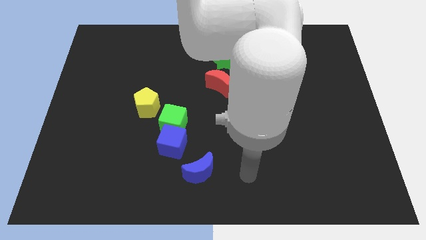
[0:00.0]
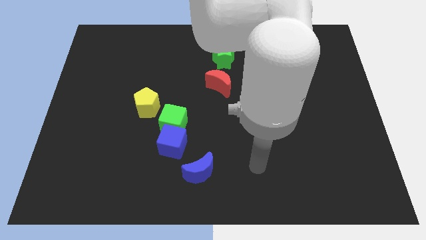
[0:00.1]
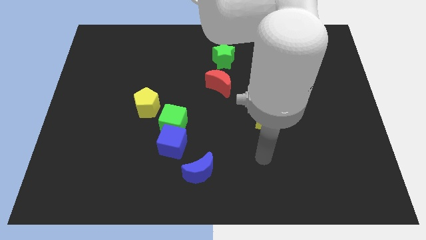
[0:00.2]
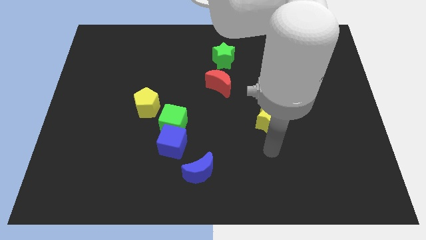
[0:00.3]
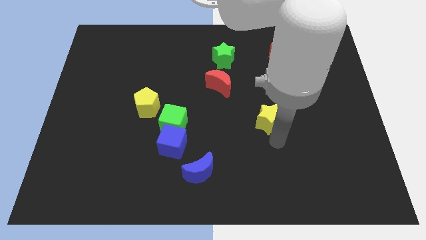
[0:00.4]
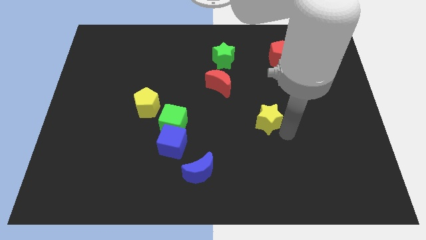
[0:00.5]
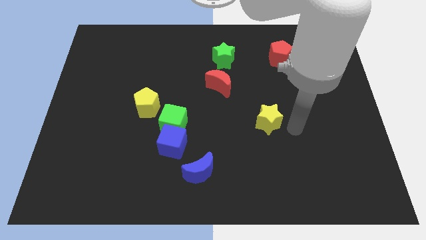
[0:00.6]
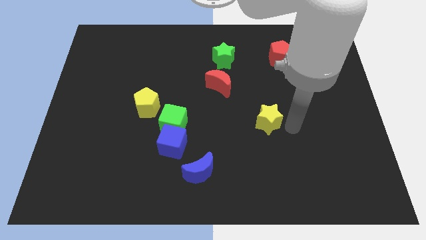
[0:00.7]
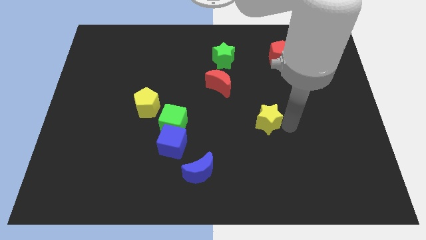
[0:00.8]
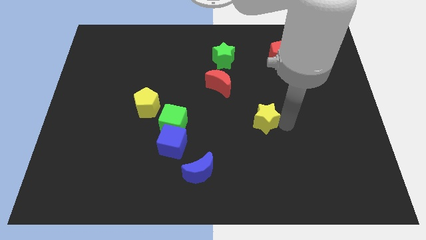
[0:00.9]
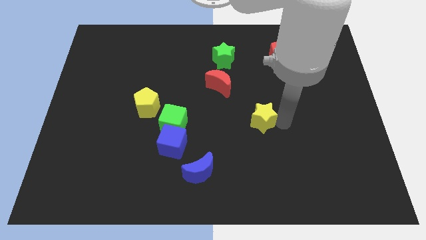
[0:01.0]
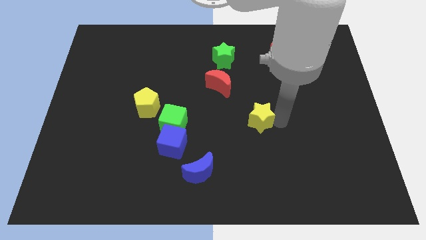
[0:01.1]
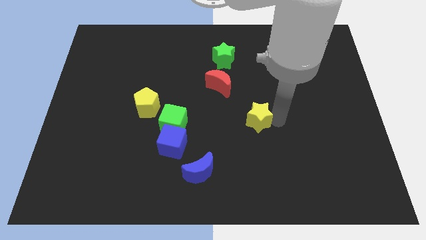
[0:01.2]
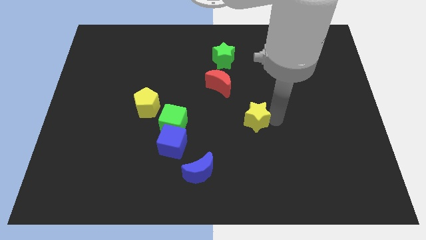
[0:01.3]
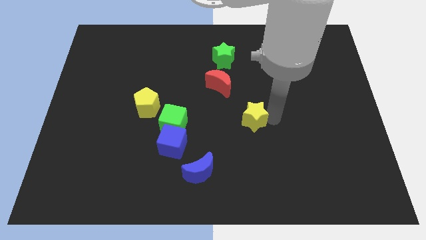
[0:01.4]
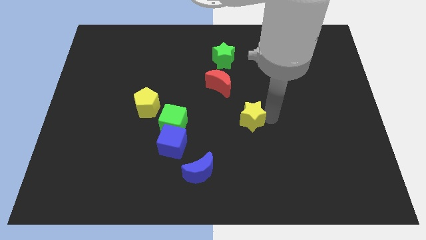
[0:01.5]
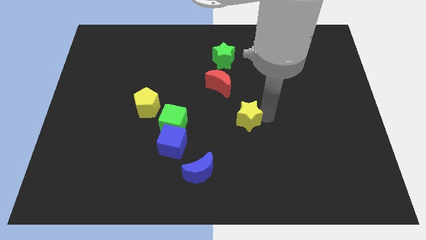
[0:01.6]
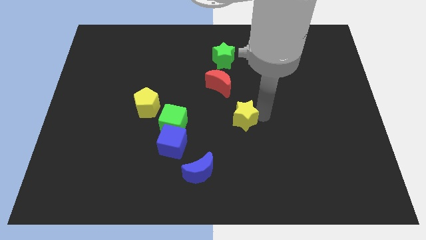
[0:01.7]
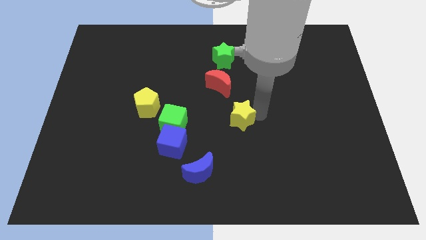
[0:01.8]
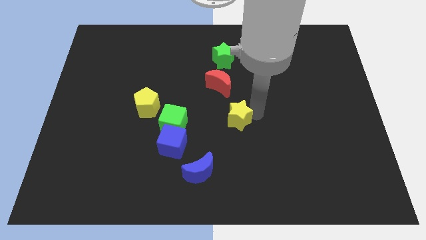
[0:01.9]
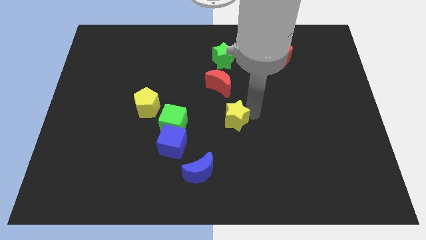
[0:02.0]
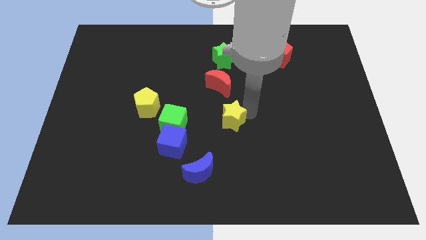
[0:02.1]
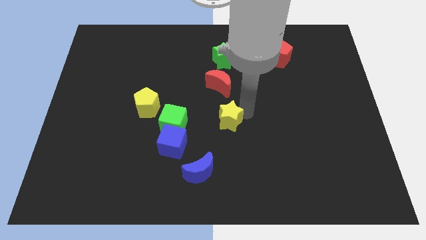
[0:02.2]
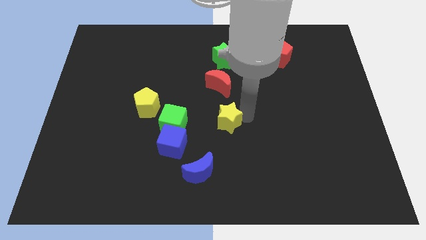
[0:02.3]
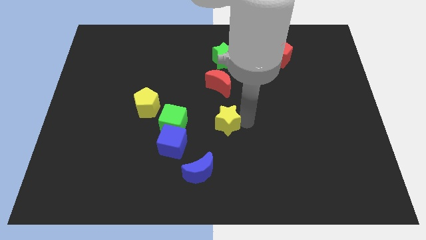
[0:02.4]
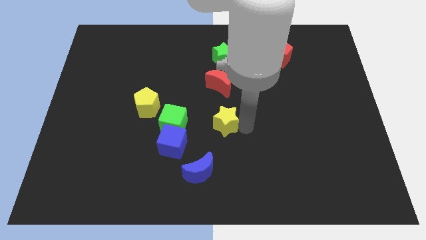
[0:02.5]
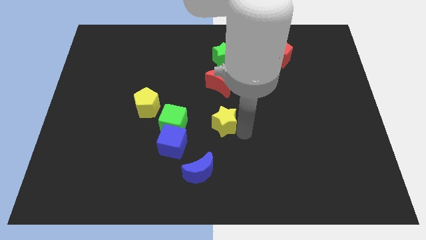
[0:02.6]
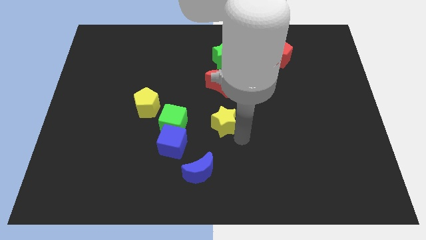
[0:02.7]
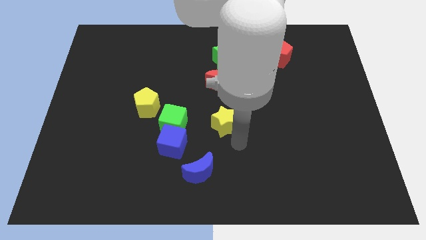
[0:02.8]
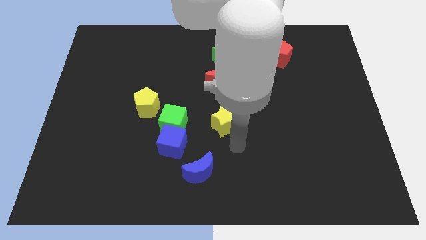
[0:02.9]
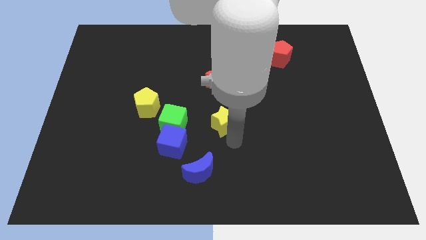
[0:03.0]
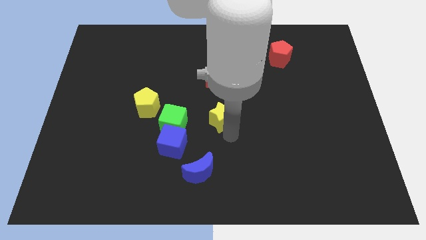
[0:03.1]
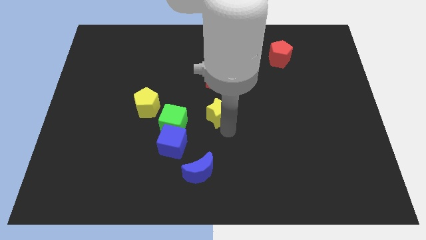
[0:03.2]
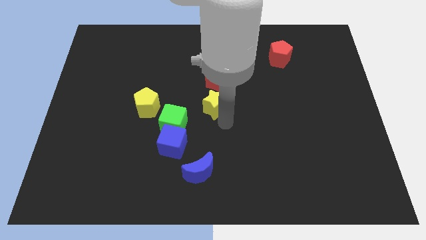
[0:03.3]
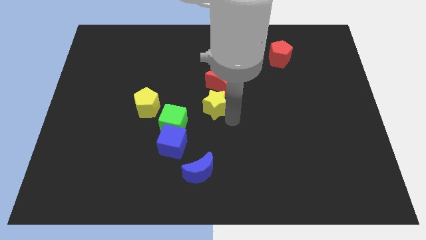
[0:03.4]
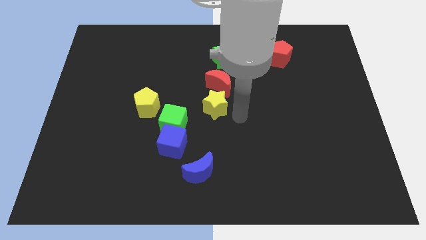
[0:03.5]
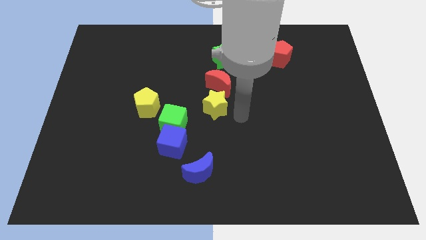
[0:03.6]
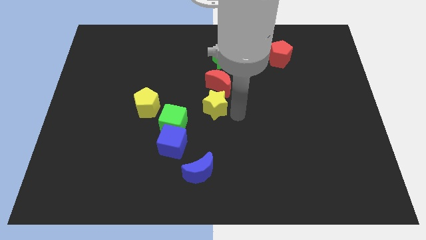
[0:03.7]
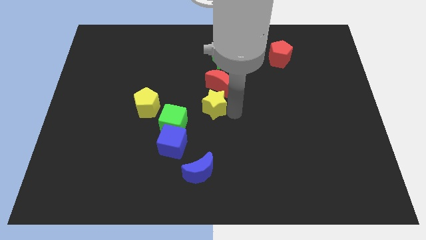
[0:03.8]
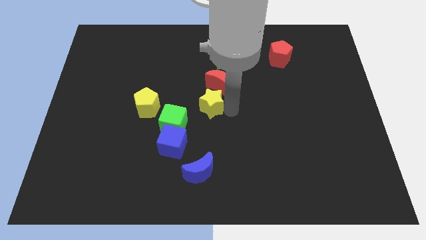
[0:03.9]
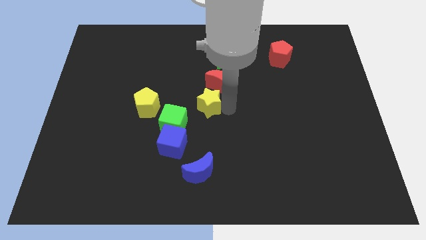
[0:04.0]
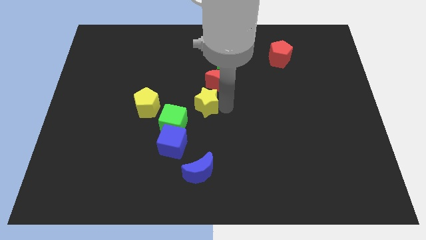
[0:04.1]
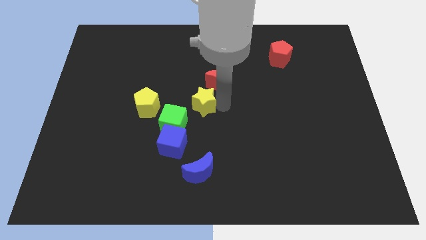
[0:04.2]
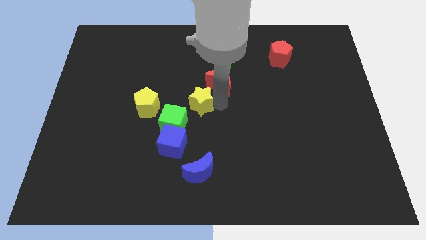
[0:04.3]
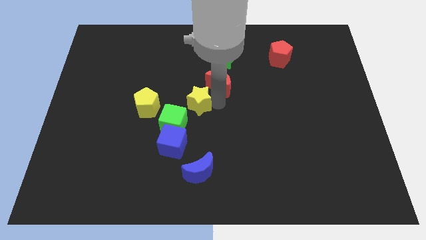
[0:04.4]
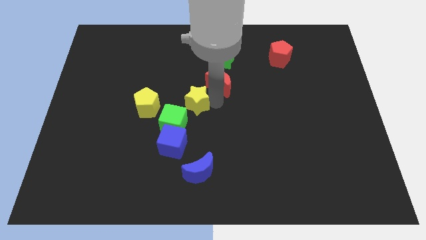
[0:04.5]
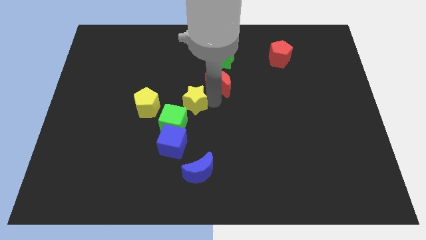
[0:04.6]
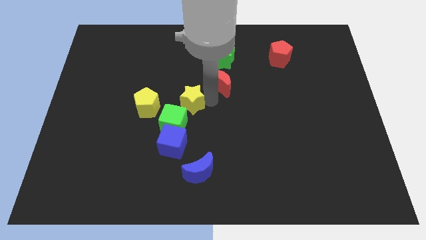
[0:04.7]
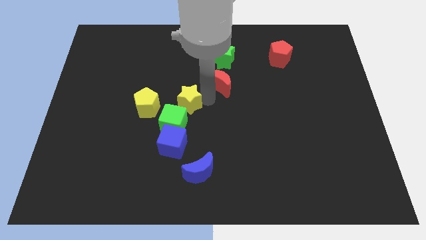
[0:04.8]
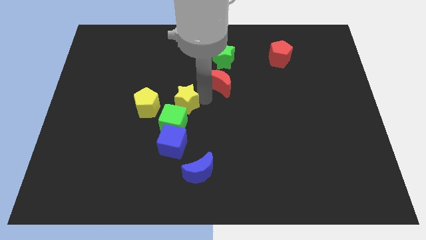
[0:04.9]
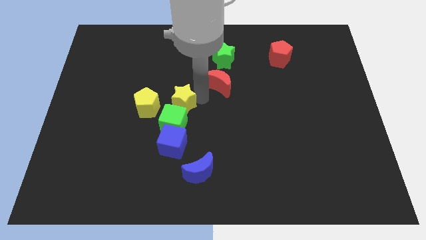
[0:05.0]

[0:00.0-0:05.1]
move the yellow star to the top right side of the yellow pentagon

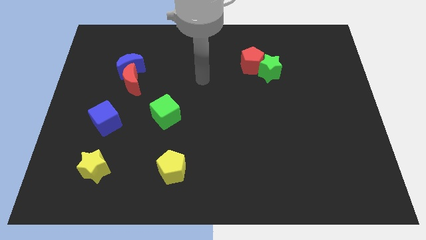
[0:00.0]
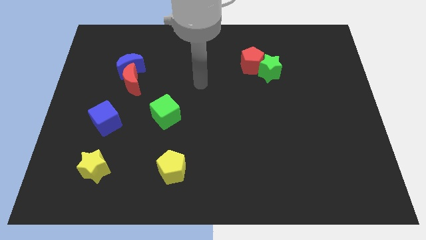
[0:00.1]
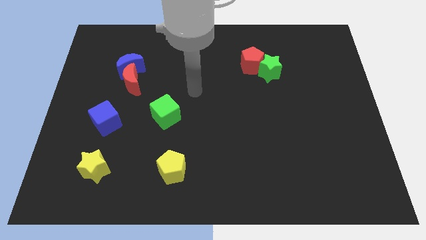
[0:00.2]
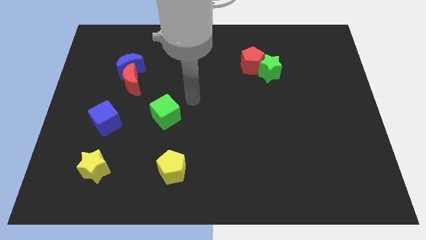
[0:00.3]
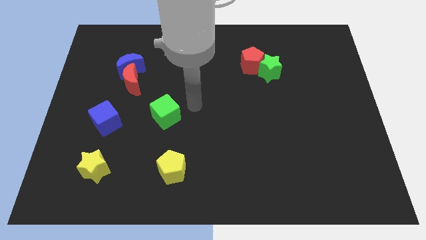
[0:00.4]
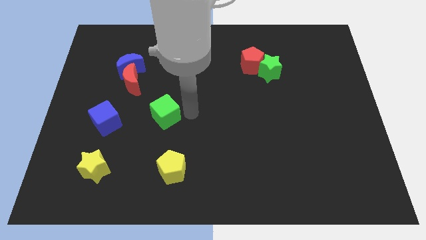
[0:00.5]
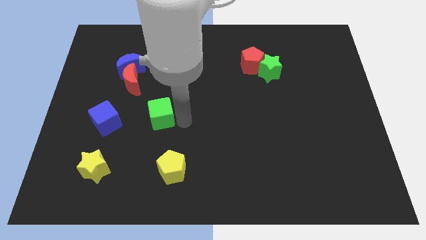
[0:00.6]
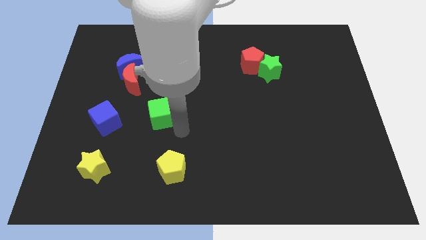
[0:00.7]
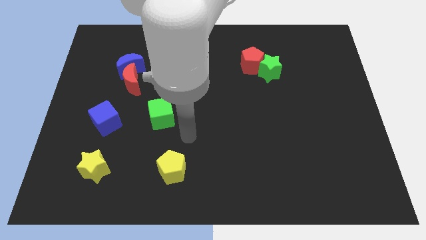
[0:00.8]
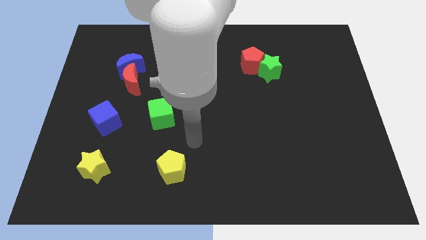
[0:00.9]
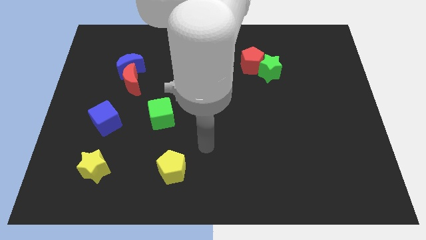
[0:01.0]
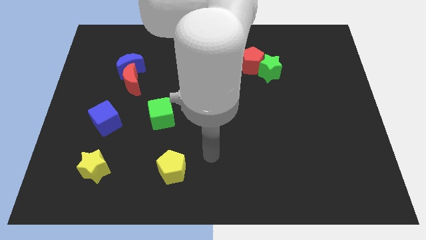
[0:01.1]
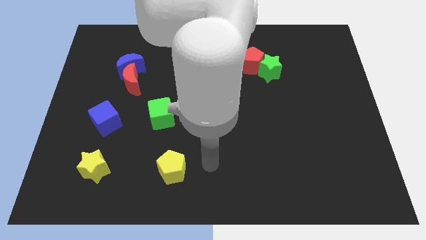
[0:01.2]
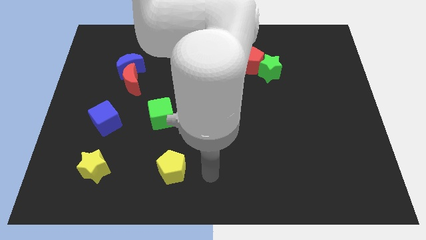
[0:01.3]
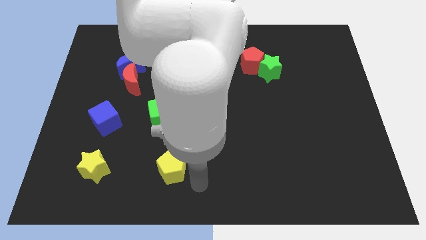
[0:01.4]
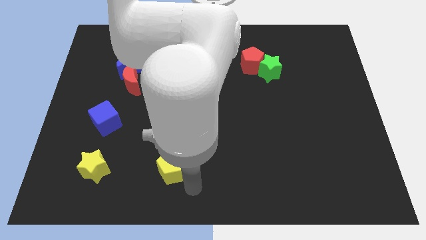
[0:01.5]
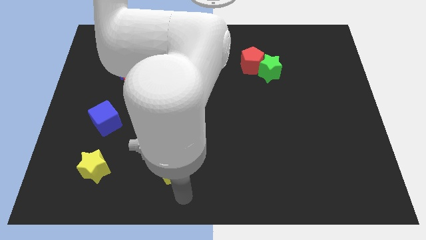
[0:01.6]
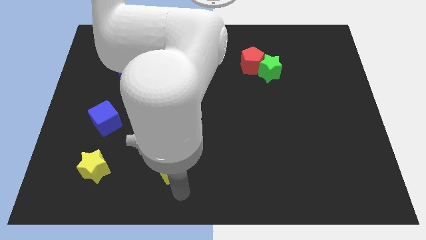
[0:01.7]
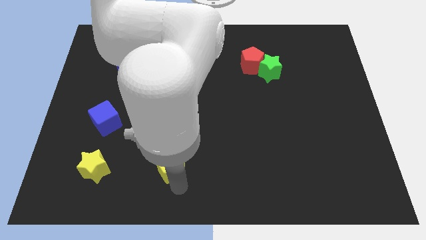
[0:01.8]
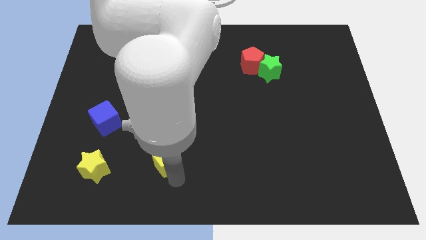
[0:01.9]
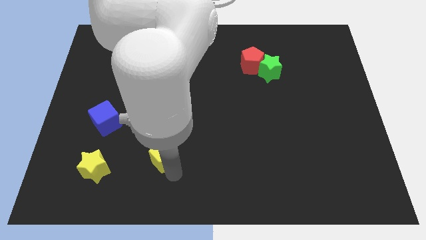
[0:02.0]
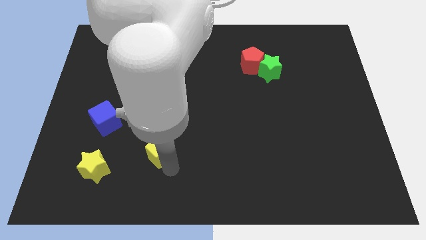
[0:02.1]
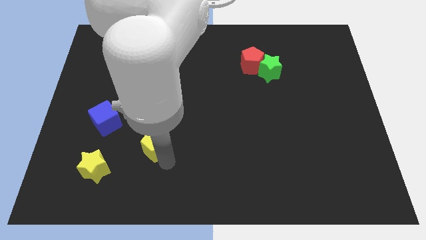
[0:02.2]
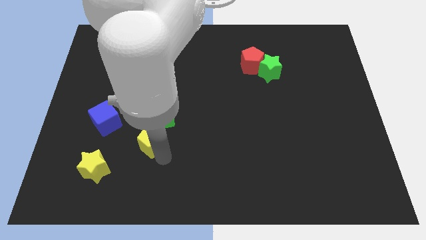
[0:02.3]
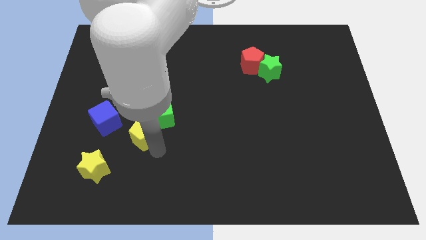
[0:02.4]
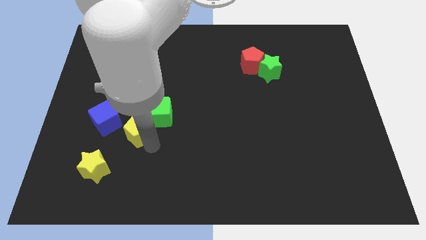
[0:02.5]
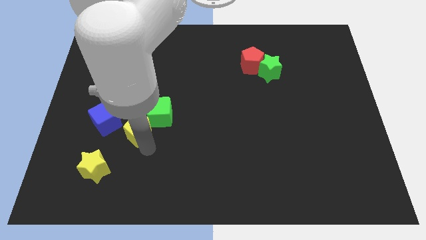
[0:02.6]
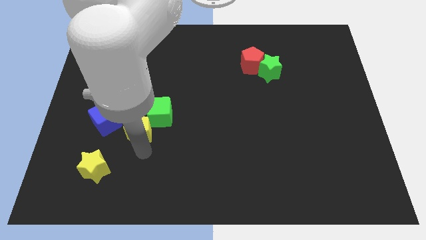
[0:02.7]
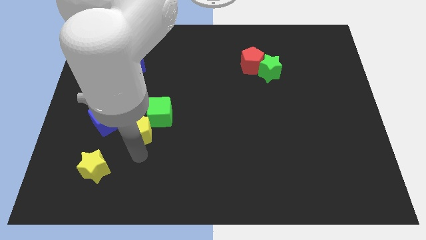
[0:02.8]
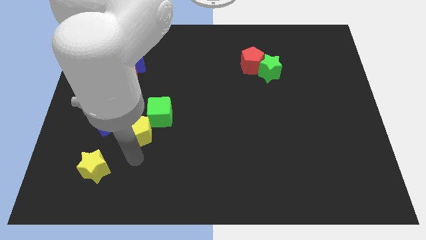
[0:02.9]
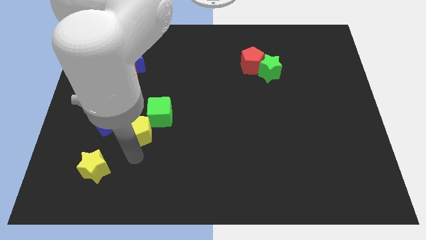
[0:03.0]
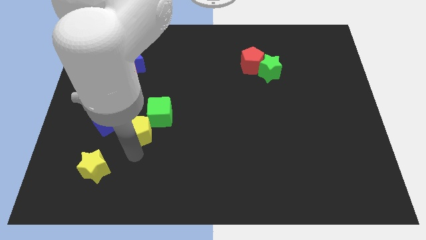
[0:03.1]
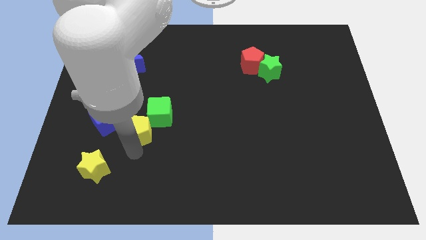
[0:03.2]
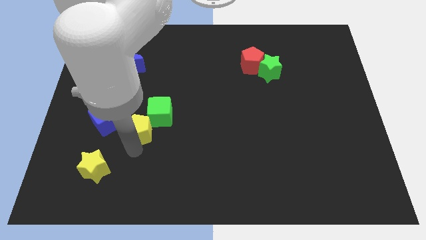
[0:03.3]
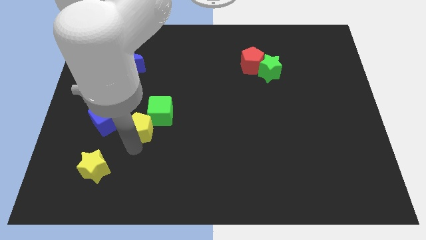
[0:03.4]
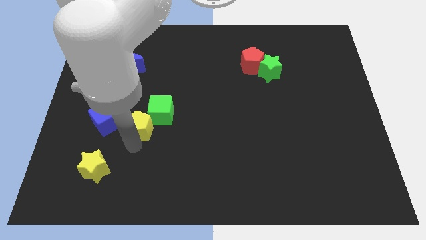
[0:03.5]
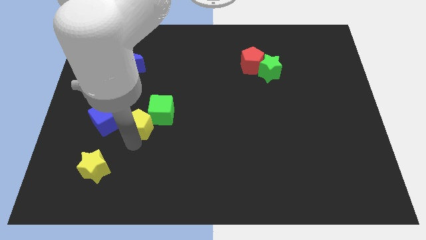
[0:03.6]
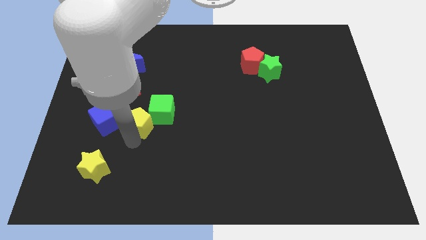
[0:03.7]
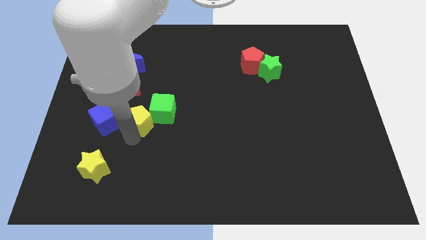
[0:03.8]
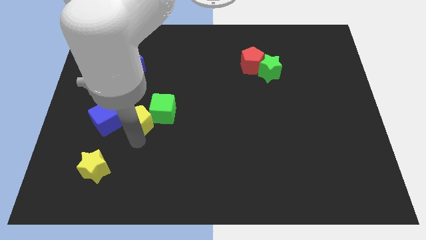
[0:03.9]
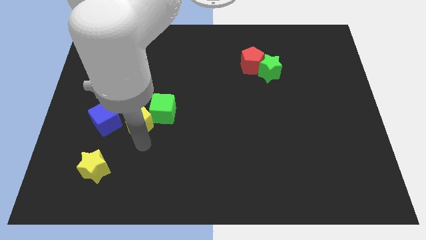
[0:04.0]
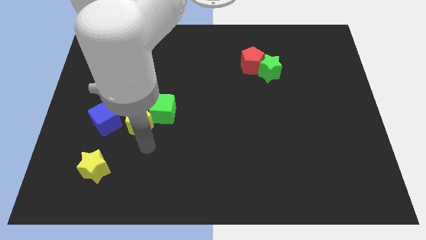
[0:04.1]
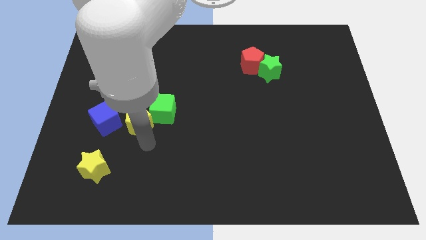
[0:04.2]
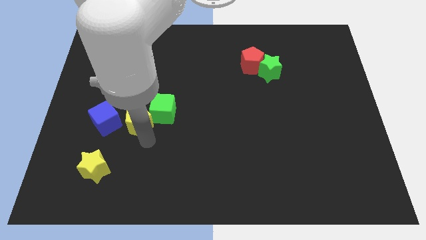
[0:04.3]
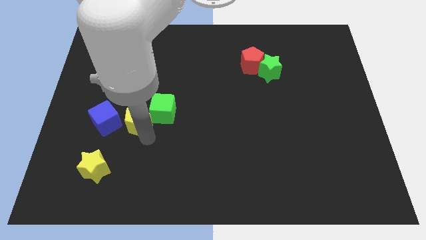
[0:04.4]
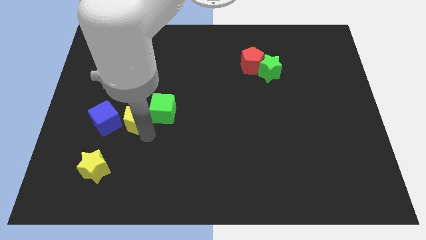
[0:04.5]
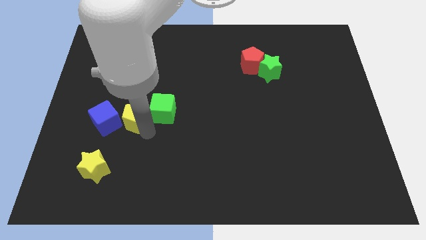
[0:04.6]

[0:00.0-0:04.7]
move the yellow pentagon diagonally up and to the right of the blue cube
